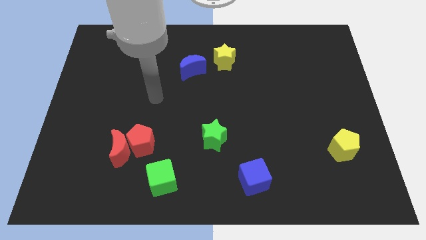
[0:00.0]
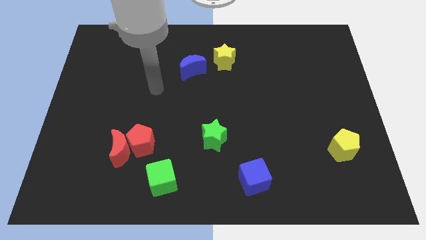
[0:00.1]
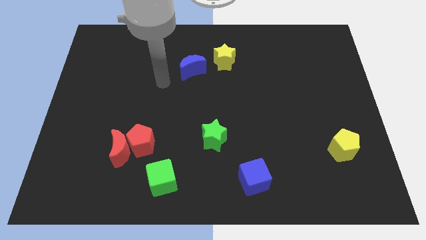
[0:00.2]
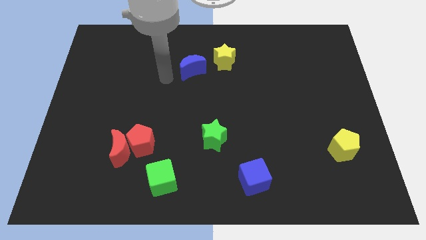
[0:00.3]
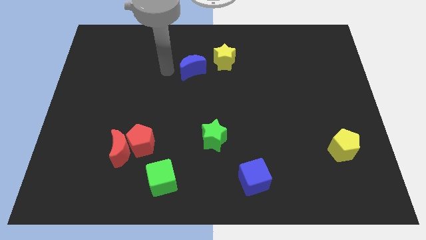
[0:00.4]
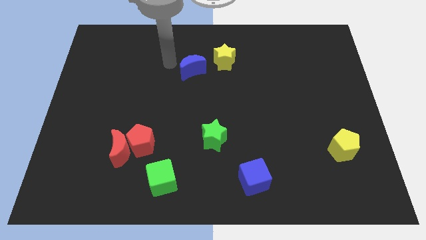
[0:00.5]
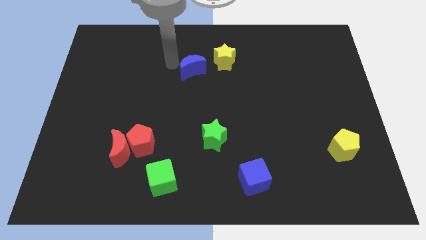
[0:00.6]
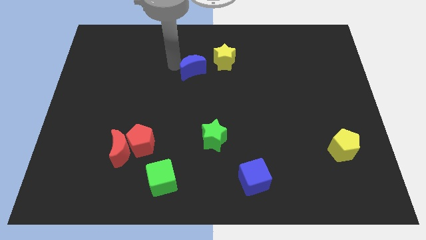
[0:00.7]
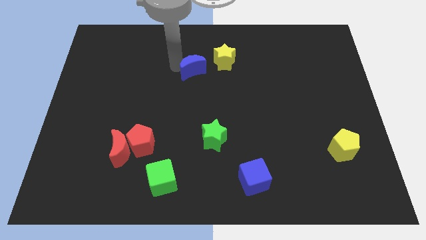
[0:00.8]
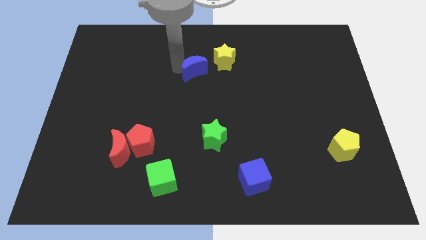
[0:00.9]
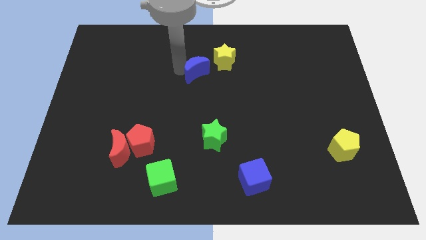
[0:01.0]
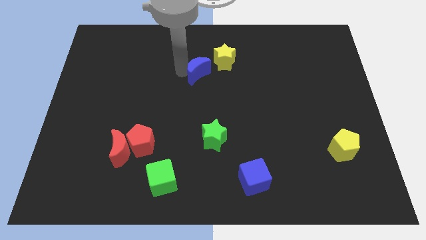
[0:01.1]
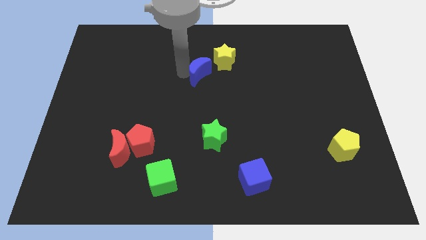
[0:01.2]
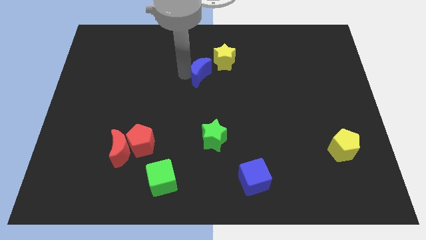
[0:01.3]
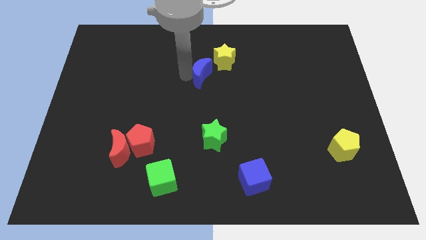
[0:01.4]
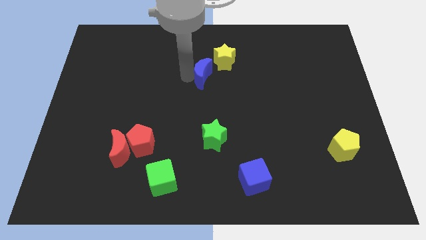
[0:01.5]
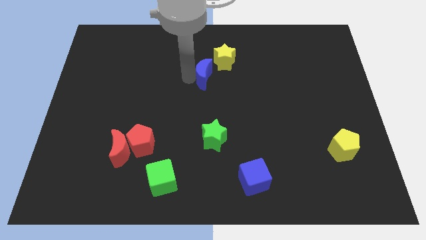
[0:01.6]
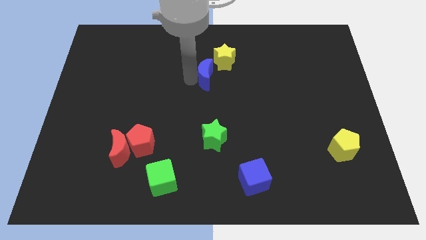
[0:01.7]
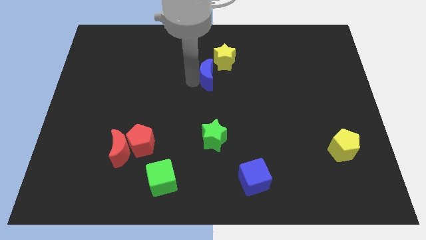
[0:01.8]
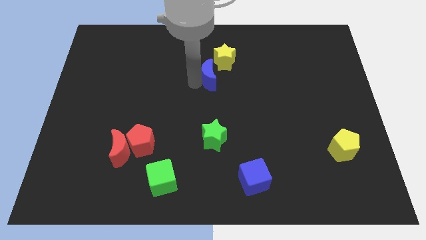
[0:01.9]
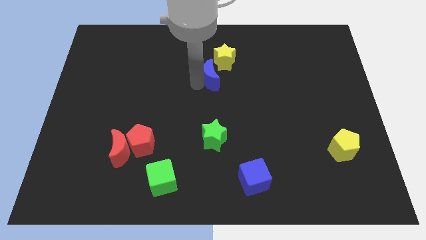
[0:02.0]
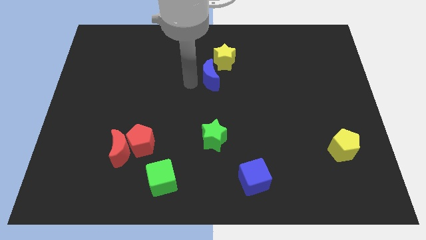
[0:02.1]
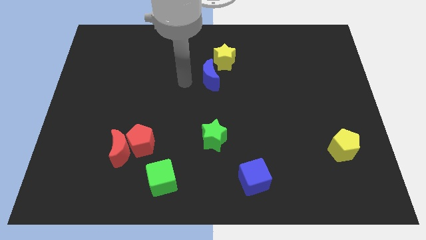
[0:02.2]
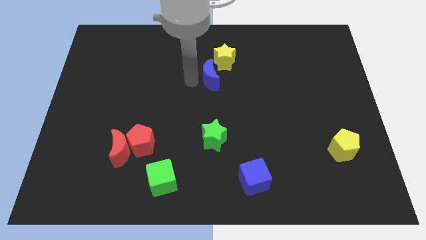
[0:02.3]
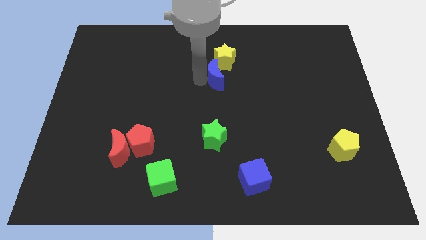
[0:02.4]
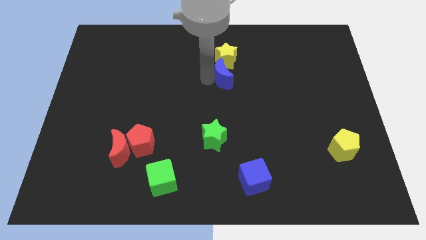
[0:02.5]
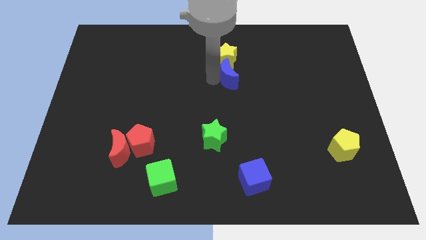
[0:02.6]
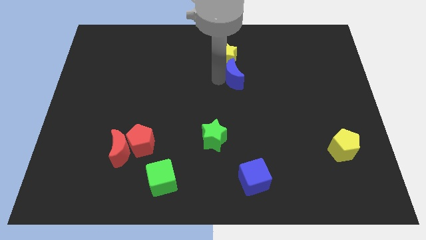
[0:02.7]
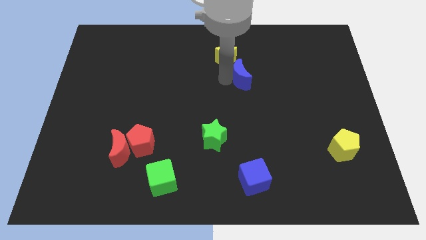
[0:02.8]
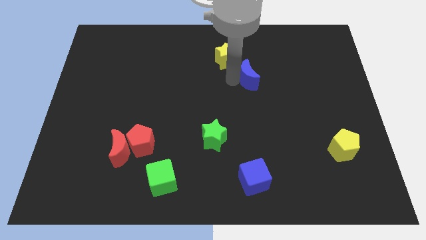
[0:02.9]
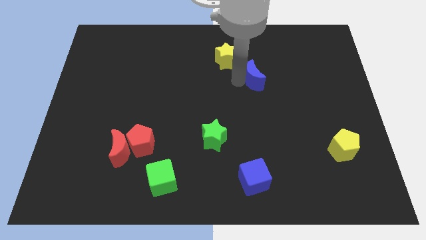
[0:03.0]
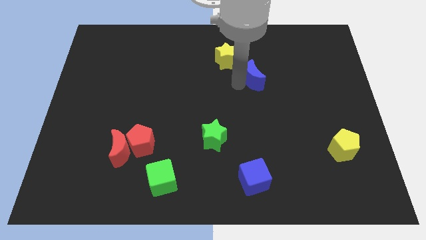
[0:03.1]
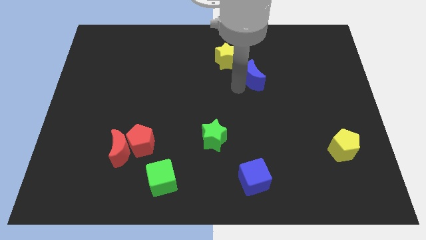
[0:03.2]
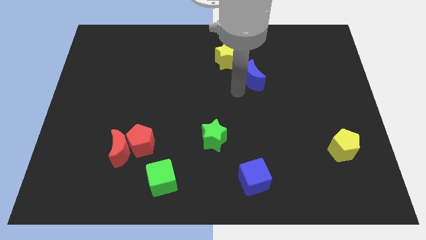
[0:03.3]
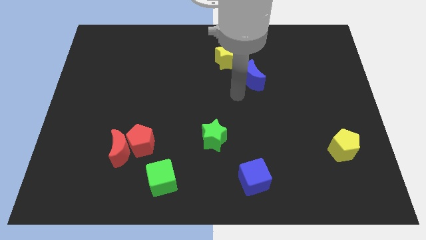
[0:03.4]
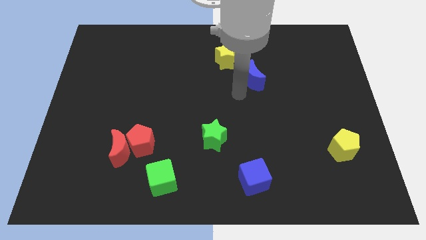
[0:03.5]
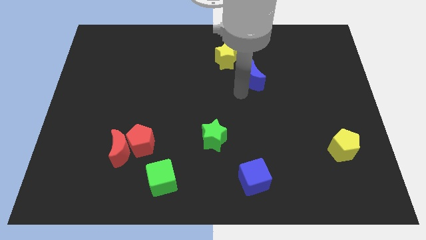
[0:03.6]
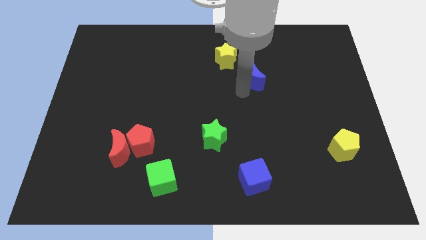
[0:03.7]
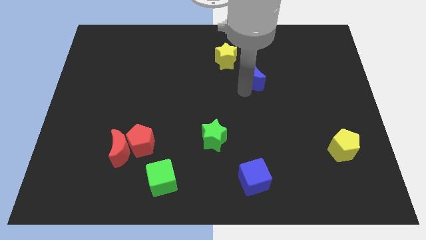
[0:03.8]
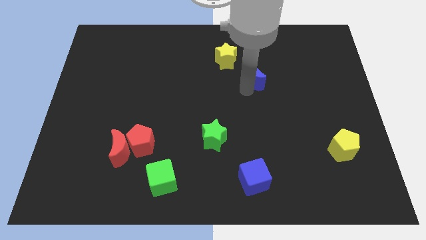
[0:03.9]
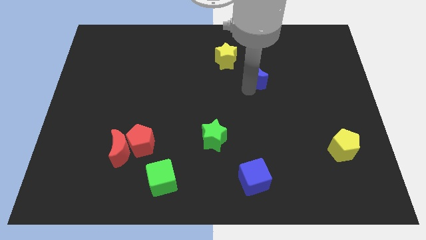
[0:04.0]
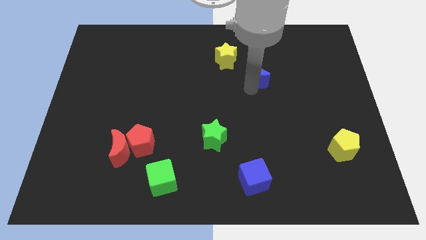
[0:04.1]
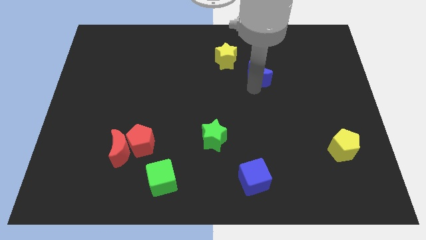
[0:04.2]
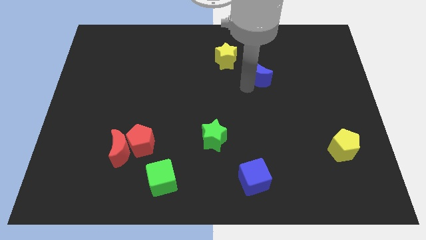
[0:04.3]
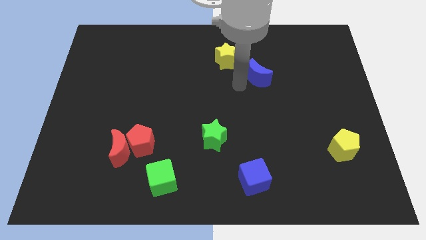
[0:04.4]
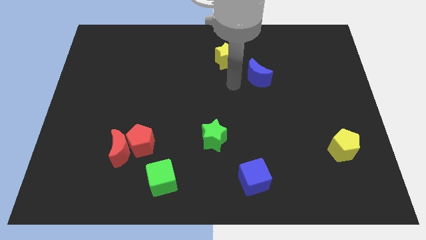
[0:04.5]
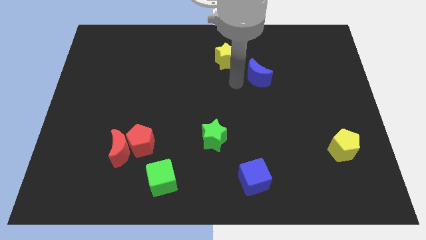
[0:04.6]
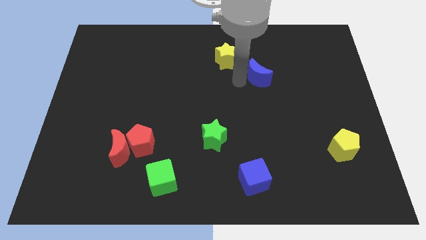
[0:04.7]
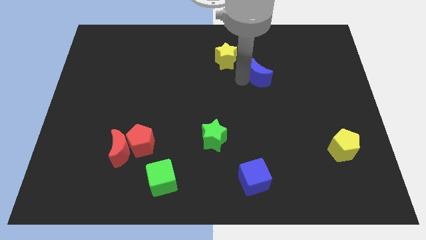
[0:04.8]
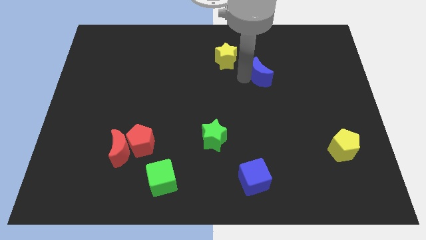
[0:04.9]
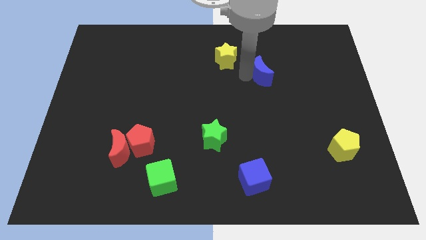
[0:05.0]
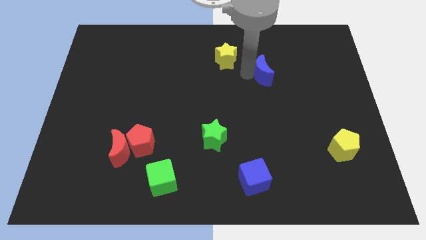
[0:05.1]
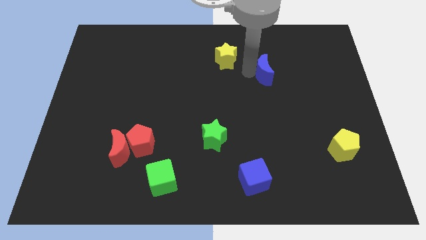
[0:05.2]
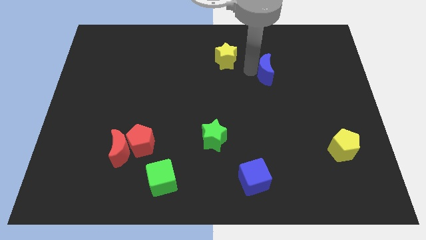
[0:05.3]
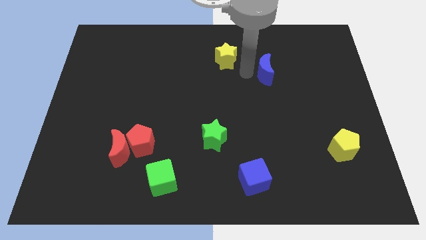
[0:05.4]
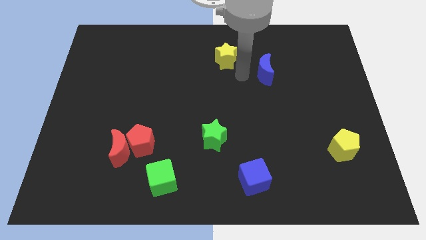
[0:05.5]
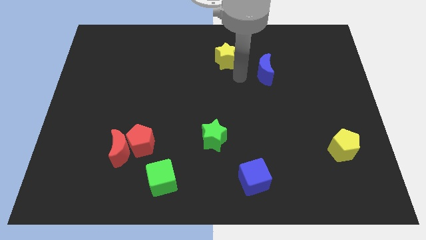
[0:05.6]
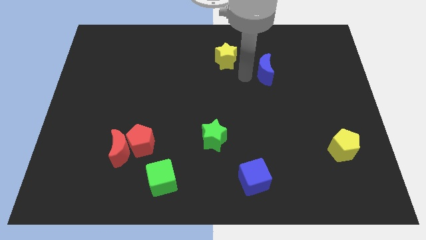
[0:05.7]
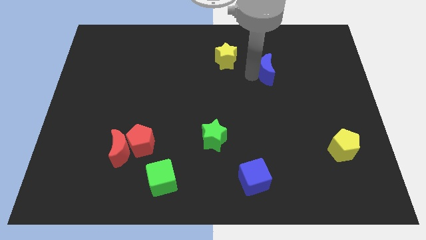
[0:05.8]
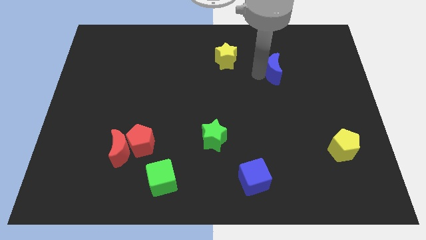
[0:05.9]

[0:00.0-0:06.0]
move the blue moon to the right

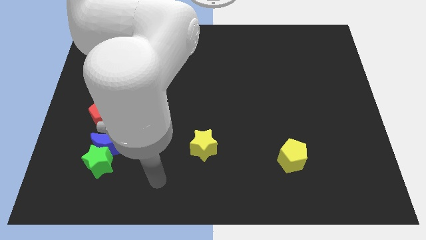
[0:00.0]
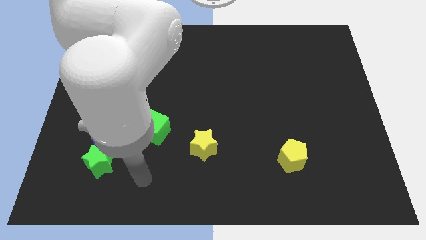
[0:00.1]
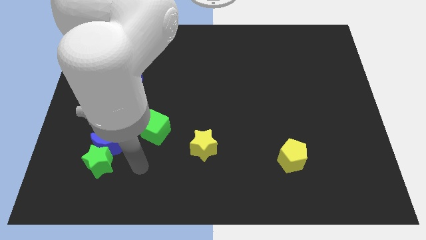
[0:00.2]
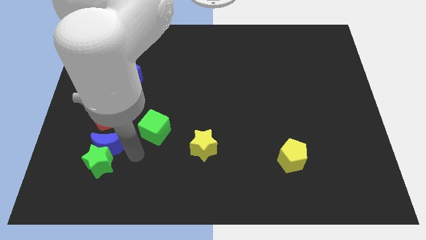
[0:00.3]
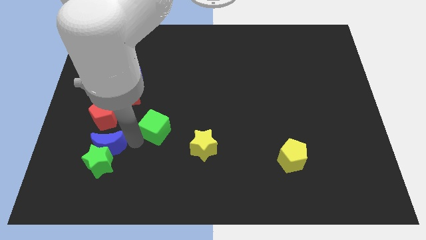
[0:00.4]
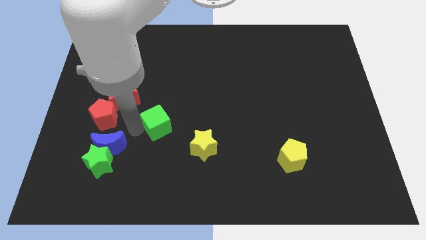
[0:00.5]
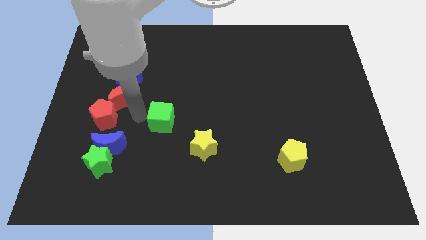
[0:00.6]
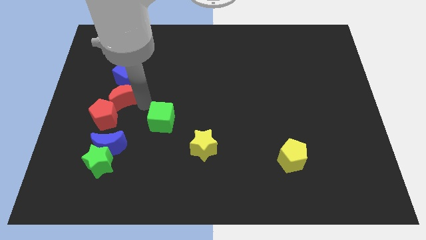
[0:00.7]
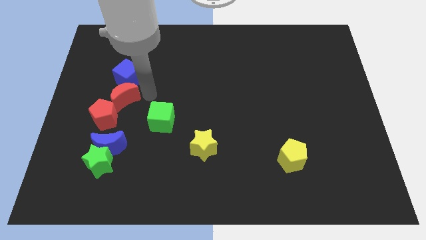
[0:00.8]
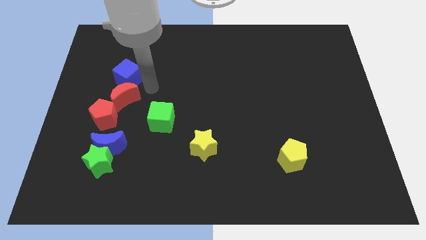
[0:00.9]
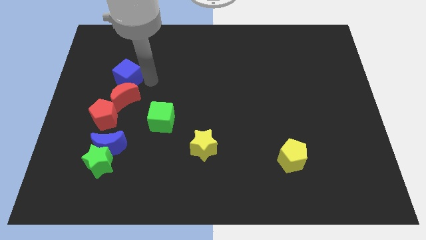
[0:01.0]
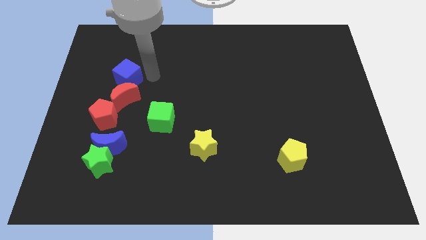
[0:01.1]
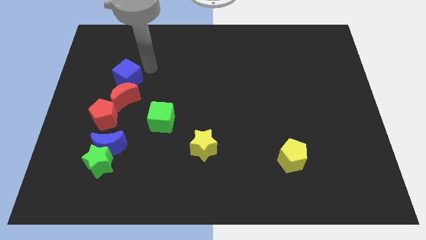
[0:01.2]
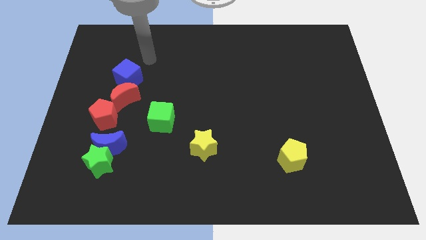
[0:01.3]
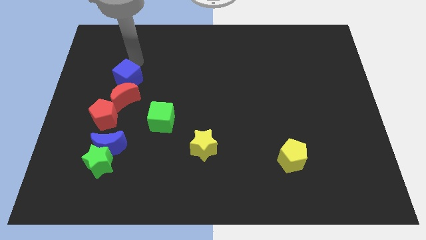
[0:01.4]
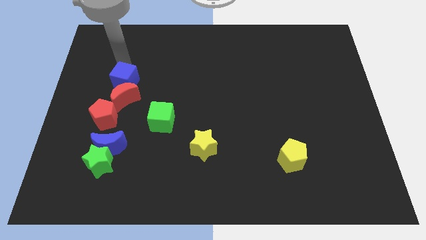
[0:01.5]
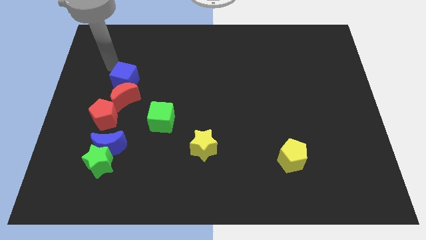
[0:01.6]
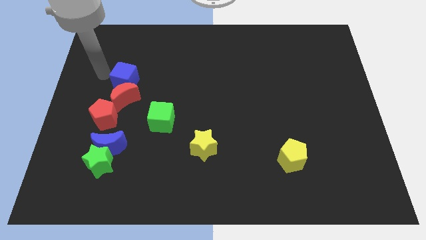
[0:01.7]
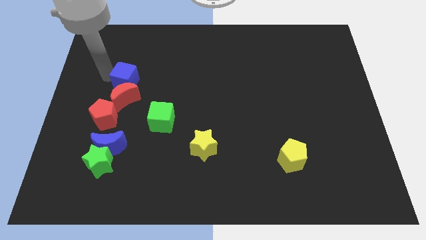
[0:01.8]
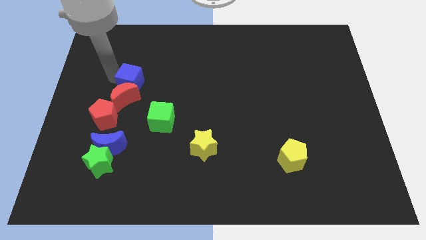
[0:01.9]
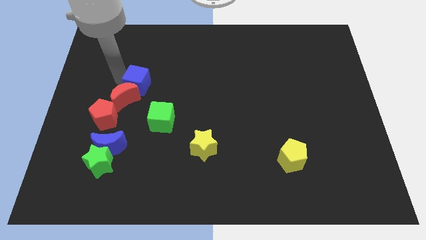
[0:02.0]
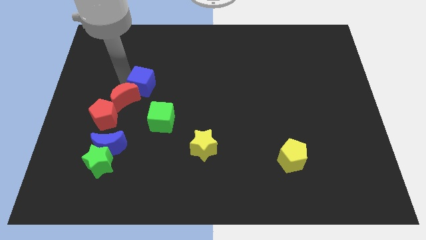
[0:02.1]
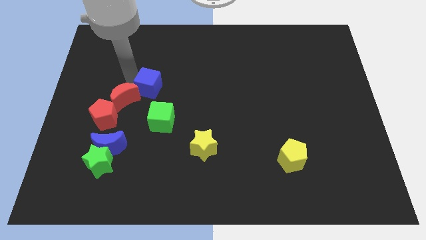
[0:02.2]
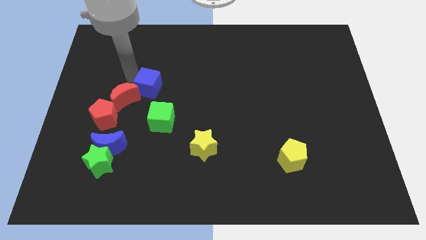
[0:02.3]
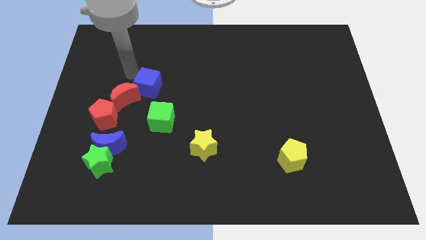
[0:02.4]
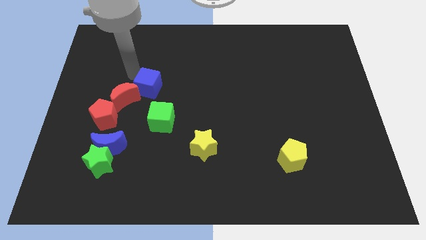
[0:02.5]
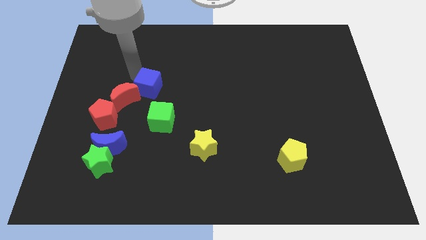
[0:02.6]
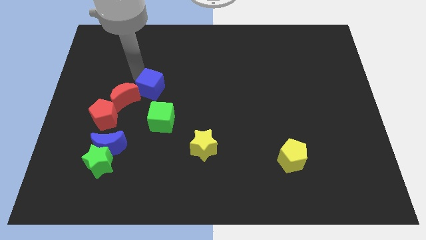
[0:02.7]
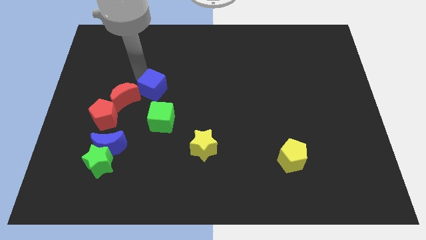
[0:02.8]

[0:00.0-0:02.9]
move the blue cube diagonally down and to the right a little bit
